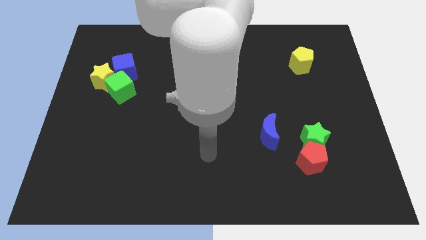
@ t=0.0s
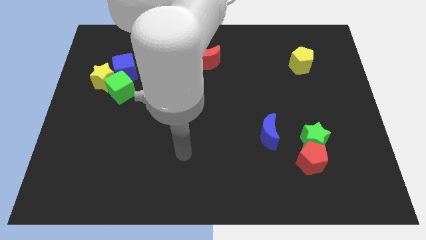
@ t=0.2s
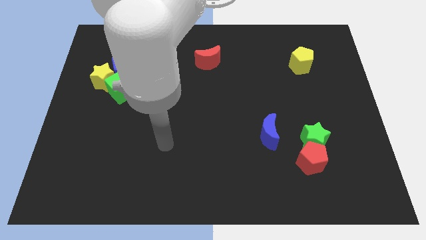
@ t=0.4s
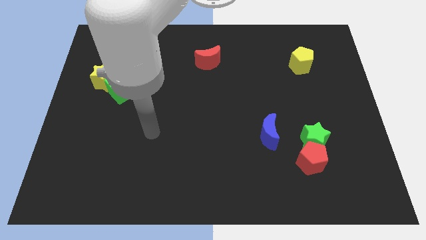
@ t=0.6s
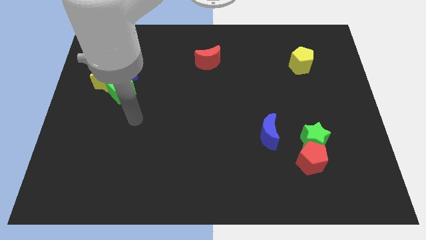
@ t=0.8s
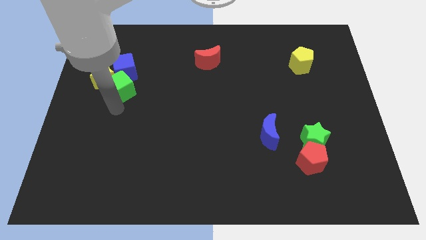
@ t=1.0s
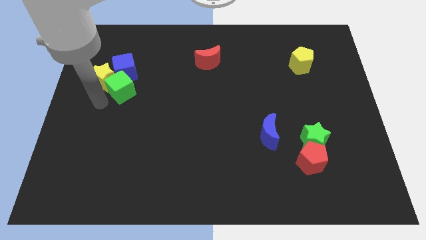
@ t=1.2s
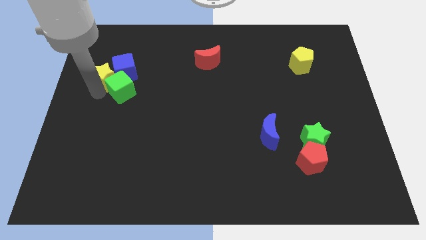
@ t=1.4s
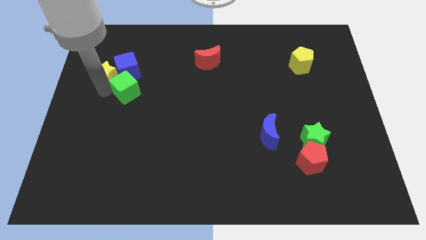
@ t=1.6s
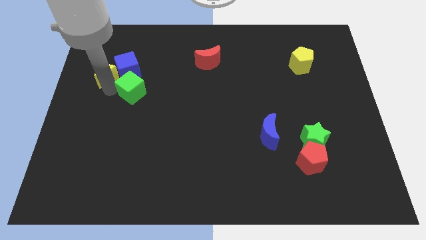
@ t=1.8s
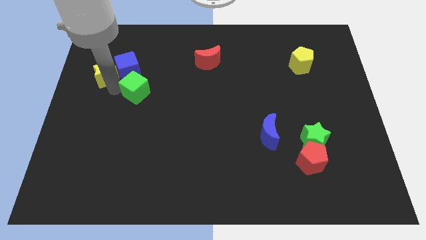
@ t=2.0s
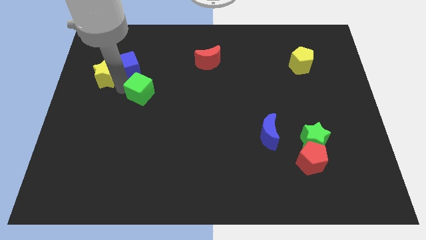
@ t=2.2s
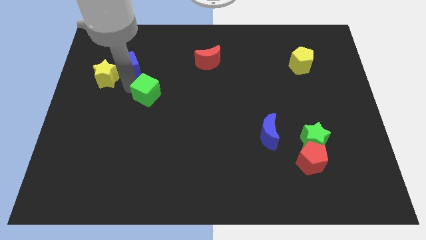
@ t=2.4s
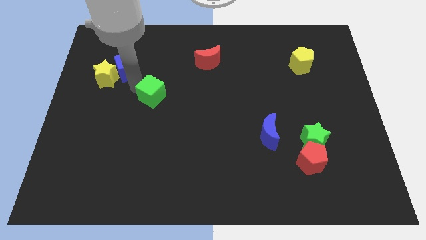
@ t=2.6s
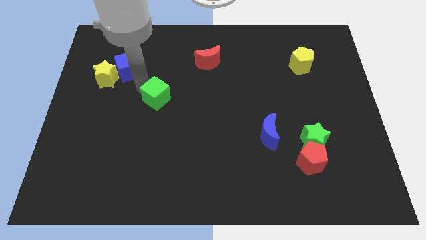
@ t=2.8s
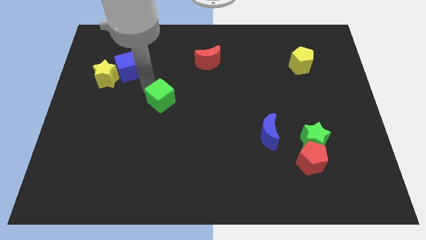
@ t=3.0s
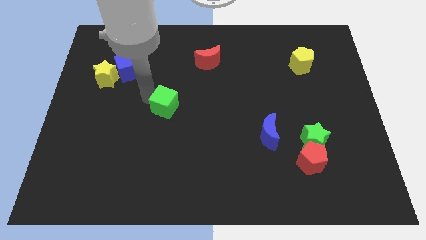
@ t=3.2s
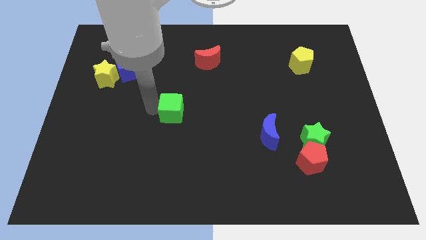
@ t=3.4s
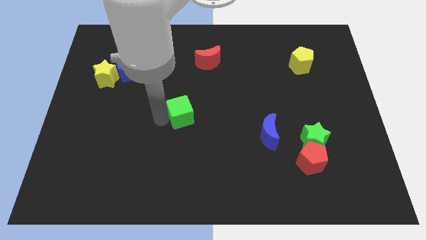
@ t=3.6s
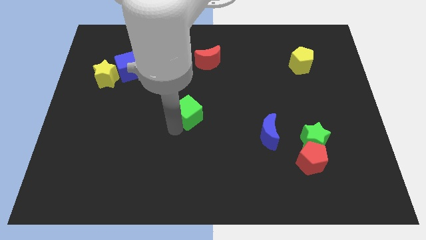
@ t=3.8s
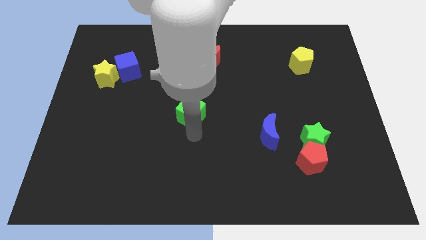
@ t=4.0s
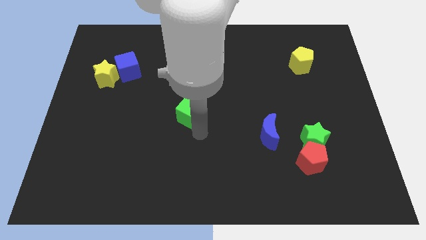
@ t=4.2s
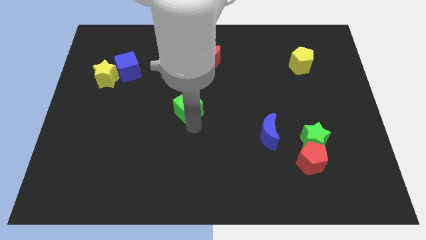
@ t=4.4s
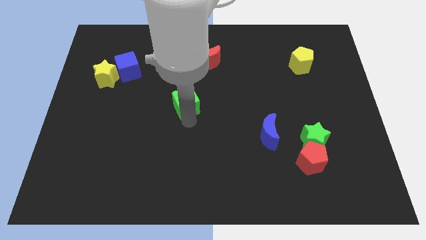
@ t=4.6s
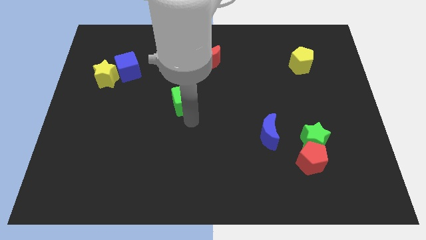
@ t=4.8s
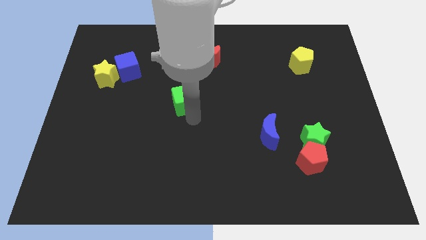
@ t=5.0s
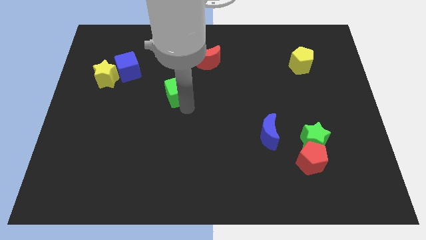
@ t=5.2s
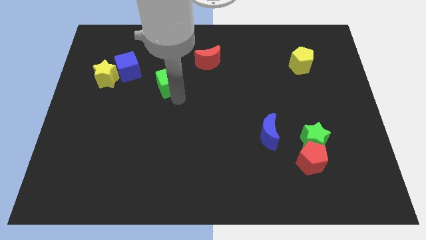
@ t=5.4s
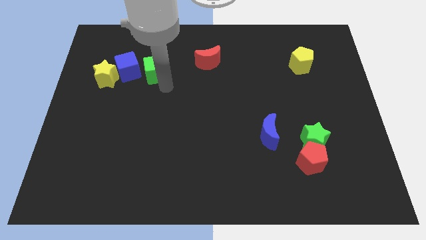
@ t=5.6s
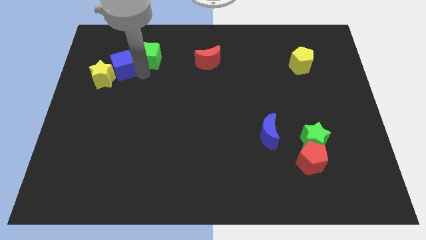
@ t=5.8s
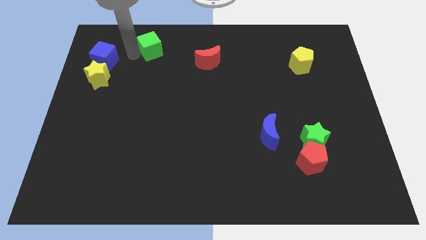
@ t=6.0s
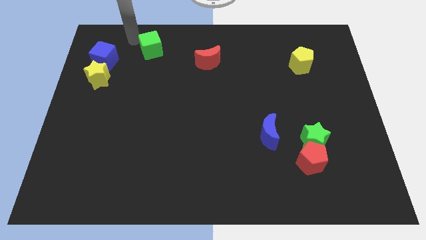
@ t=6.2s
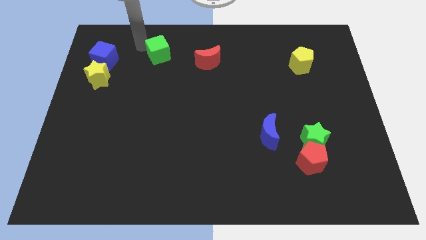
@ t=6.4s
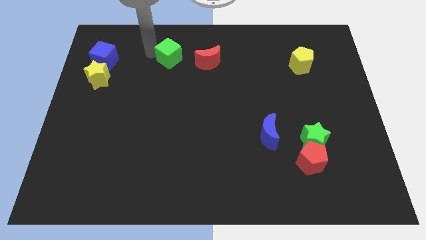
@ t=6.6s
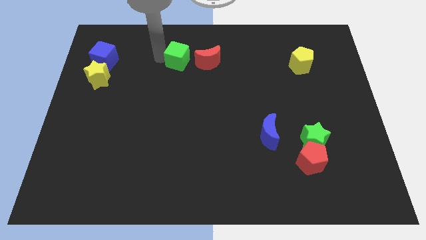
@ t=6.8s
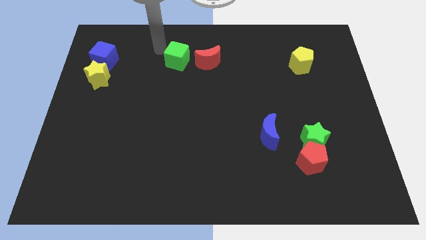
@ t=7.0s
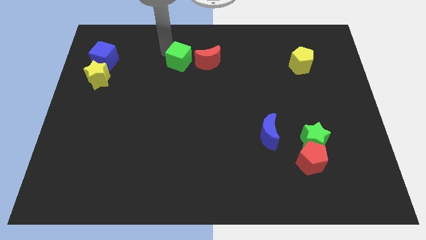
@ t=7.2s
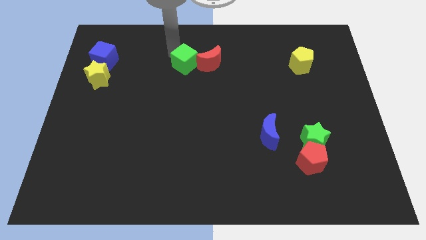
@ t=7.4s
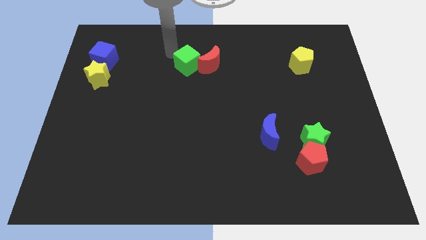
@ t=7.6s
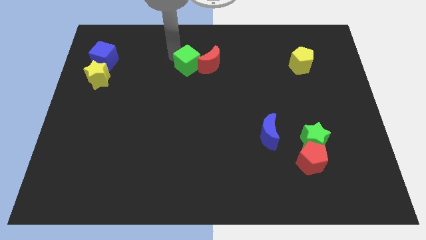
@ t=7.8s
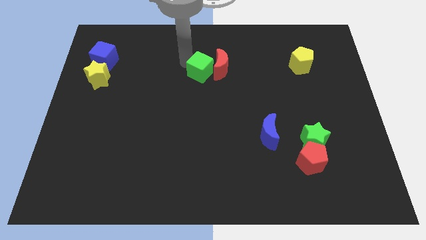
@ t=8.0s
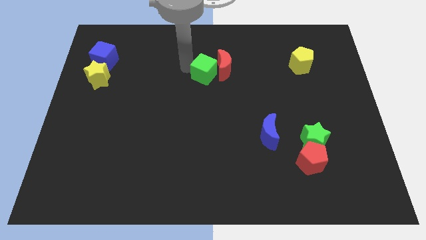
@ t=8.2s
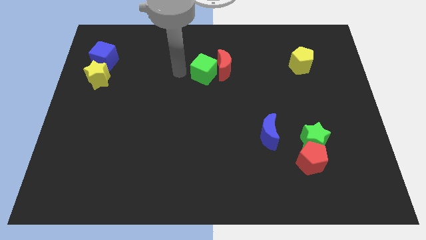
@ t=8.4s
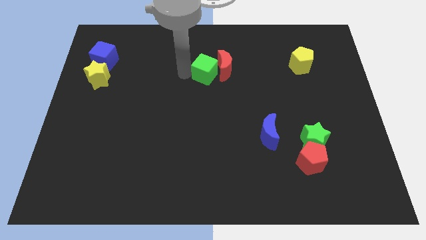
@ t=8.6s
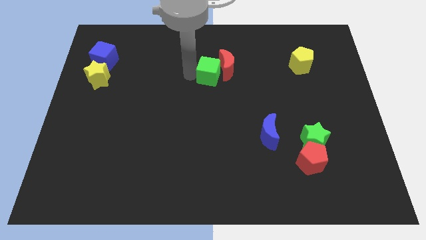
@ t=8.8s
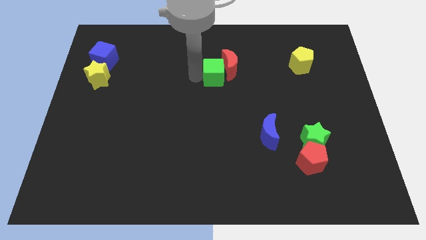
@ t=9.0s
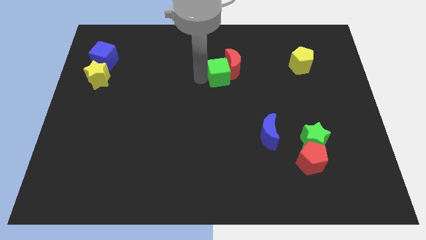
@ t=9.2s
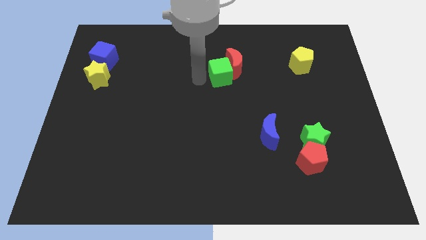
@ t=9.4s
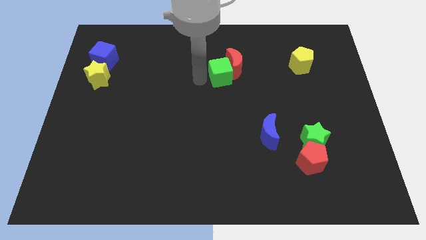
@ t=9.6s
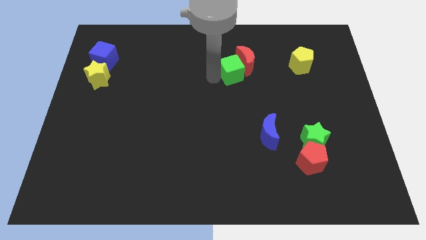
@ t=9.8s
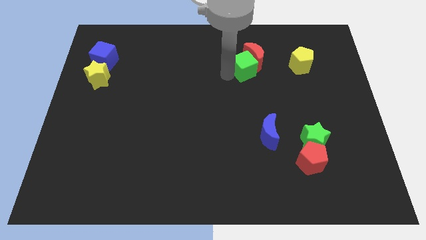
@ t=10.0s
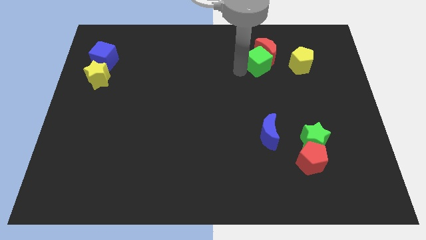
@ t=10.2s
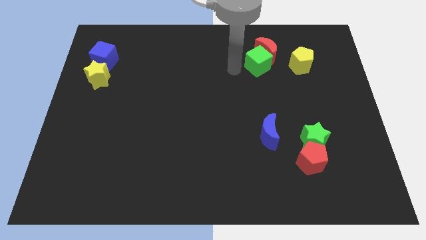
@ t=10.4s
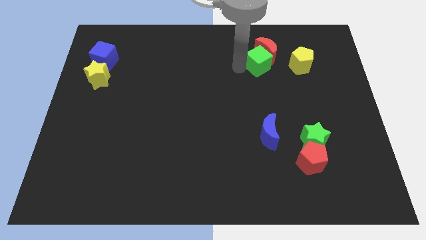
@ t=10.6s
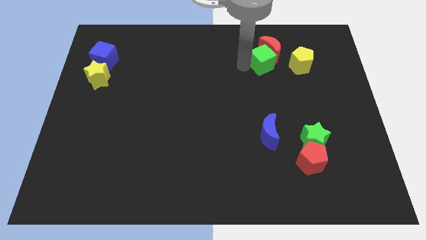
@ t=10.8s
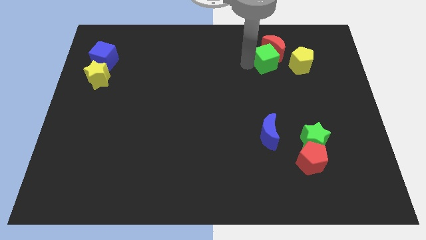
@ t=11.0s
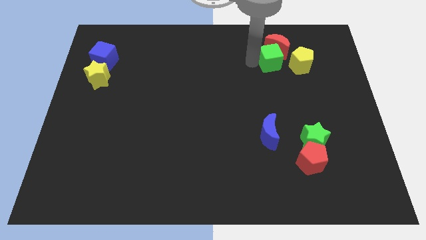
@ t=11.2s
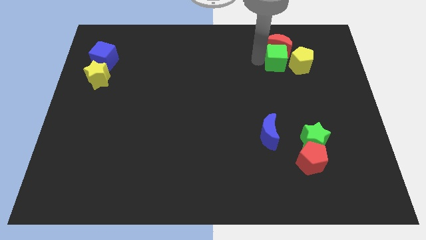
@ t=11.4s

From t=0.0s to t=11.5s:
move the green cube next to the yellow pentagon

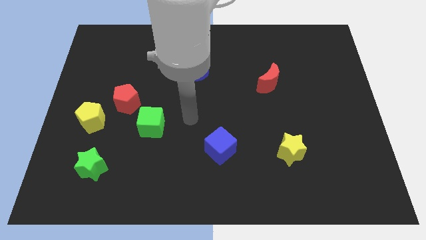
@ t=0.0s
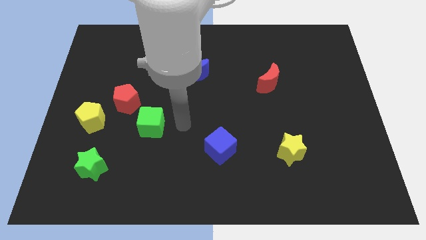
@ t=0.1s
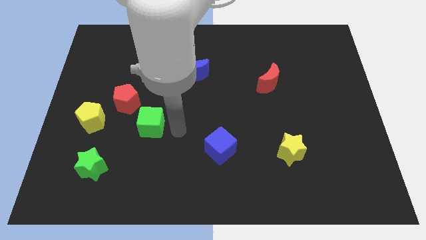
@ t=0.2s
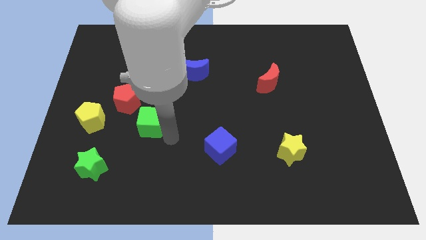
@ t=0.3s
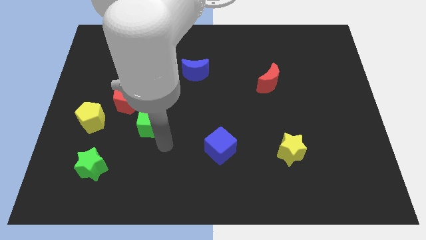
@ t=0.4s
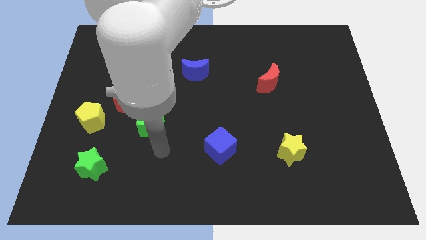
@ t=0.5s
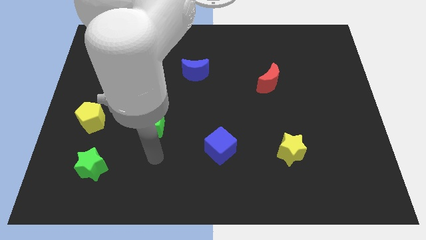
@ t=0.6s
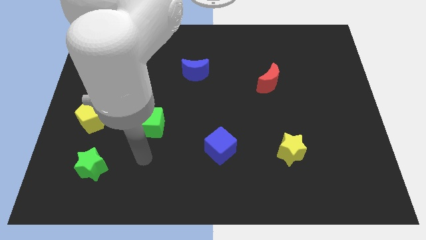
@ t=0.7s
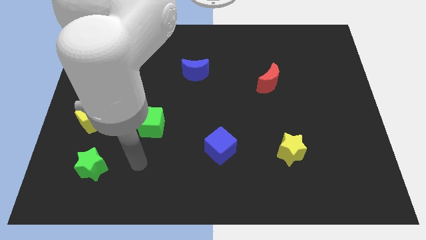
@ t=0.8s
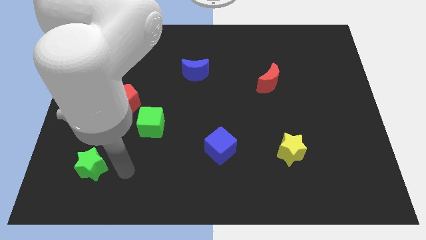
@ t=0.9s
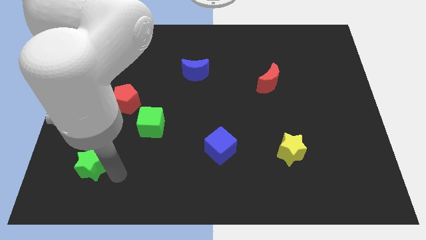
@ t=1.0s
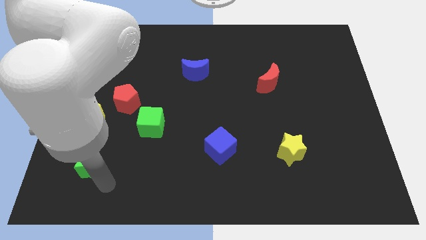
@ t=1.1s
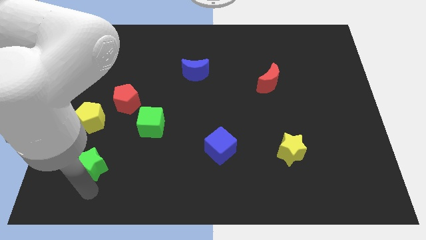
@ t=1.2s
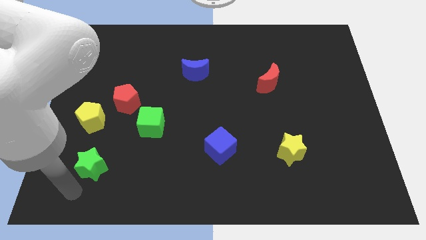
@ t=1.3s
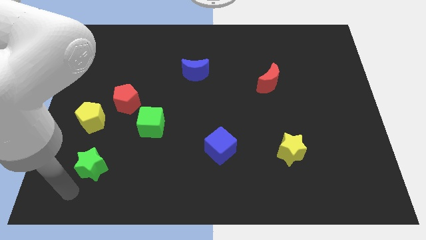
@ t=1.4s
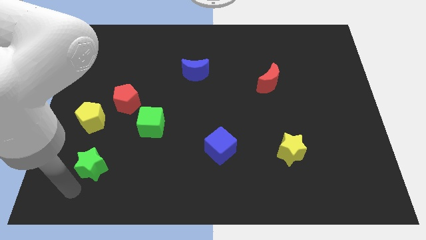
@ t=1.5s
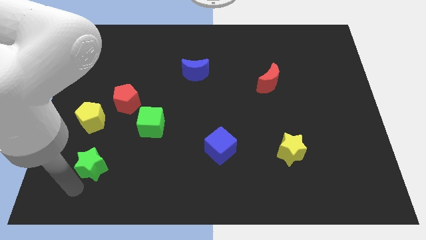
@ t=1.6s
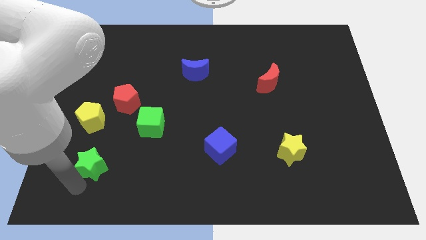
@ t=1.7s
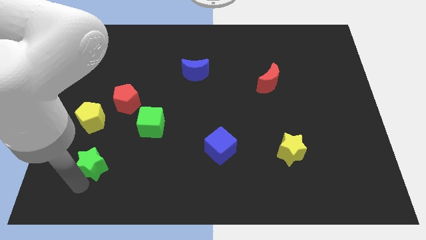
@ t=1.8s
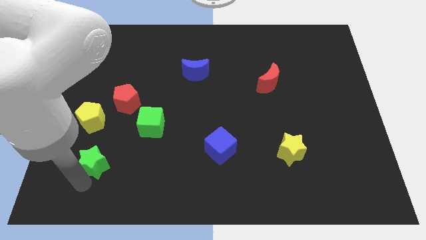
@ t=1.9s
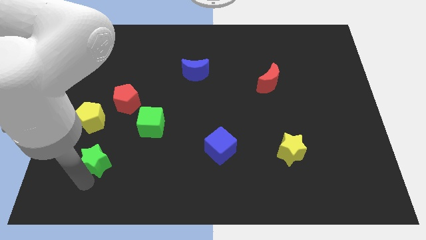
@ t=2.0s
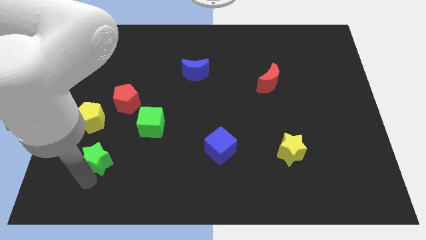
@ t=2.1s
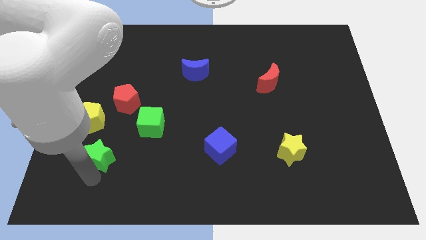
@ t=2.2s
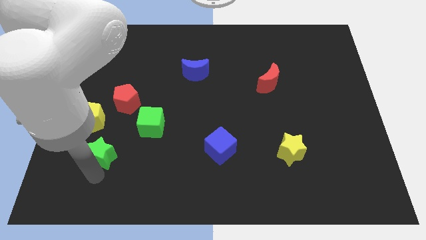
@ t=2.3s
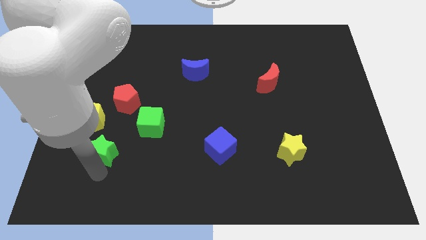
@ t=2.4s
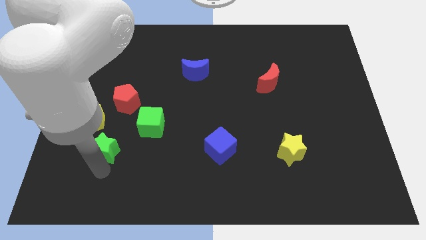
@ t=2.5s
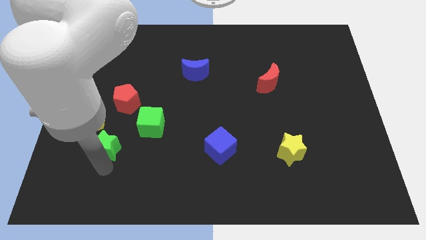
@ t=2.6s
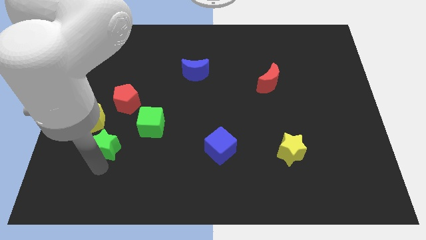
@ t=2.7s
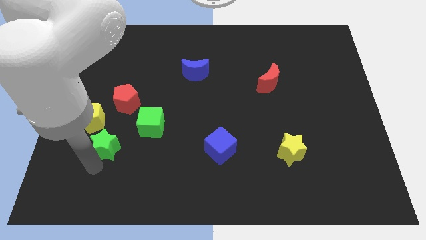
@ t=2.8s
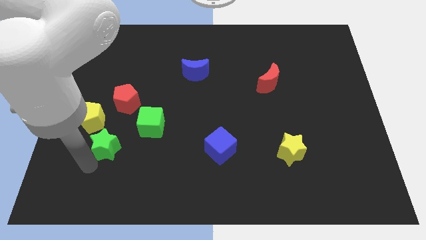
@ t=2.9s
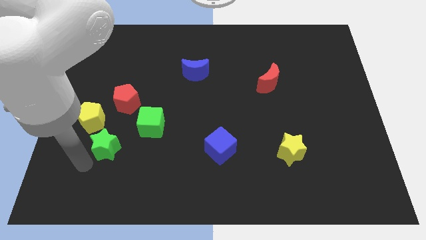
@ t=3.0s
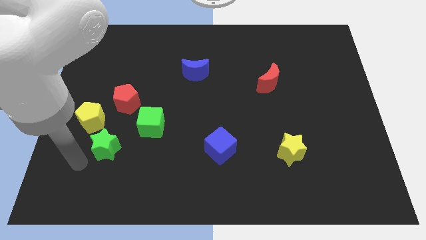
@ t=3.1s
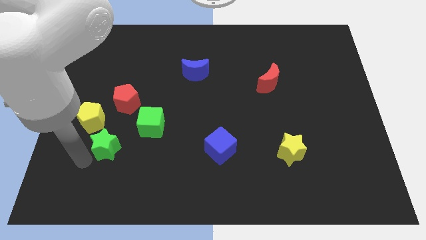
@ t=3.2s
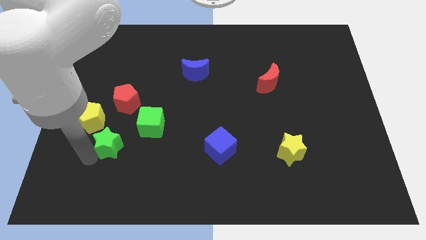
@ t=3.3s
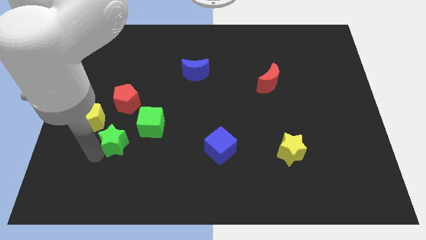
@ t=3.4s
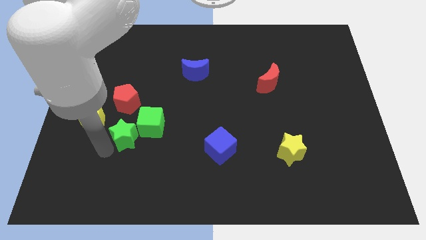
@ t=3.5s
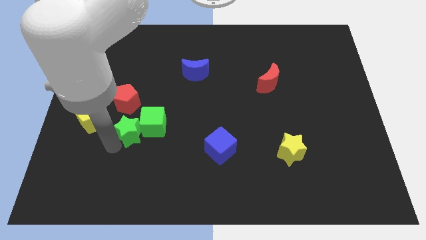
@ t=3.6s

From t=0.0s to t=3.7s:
put the green star to the green cube
